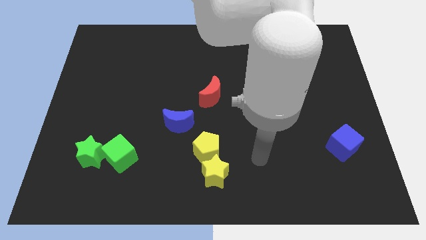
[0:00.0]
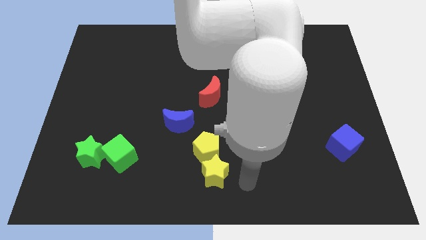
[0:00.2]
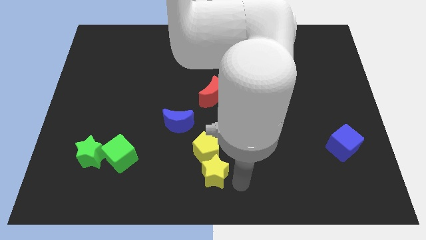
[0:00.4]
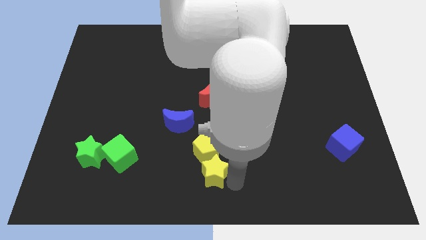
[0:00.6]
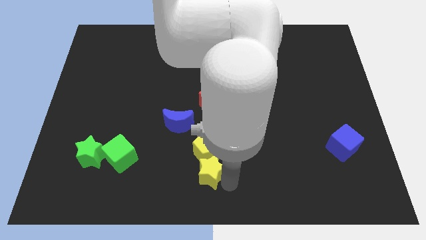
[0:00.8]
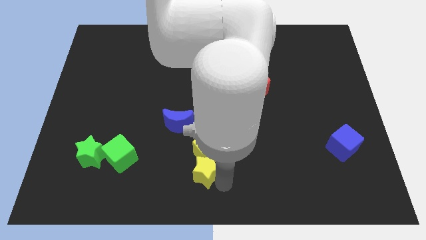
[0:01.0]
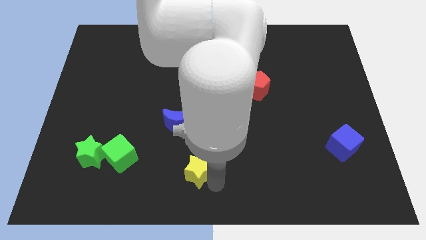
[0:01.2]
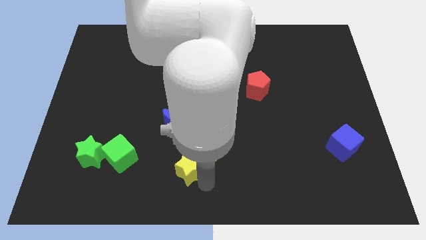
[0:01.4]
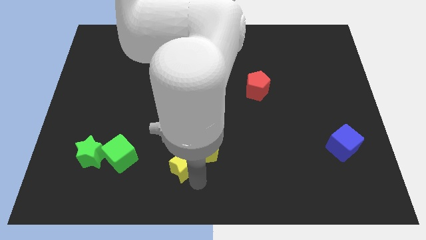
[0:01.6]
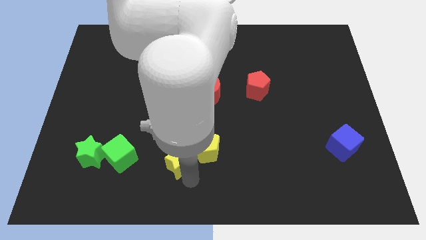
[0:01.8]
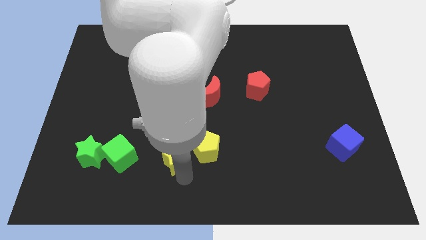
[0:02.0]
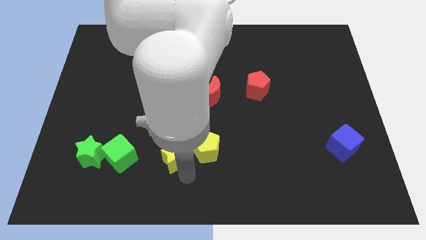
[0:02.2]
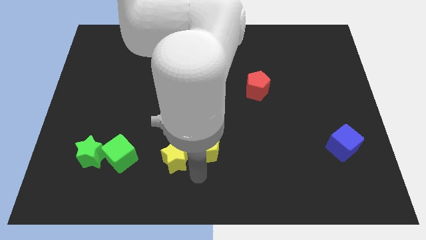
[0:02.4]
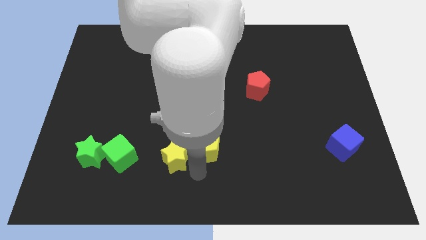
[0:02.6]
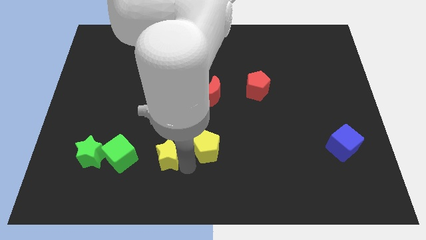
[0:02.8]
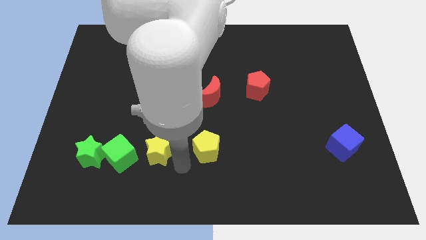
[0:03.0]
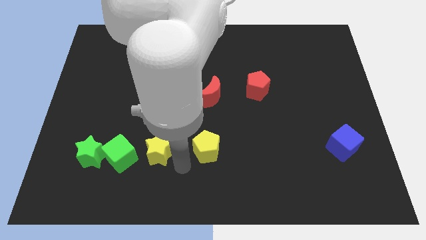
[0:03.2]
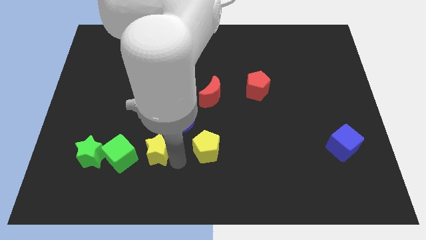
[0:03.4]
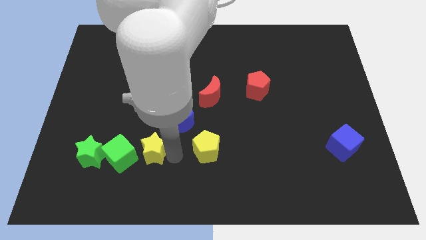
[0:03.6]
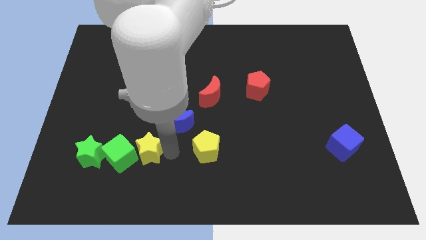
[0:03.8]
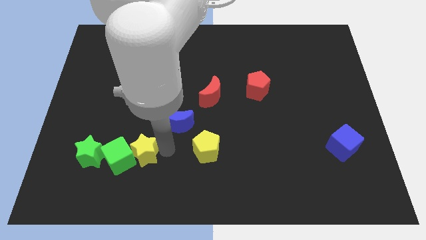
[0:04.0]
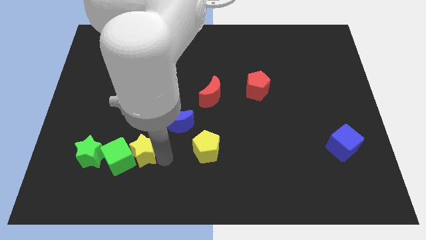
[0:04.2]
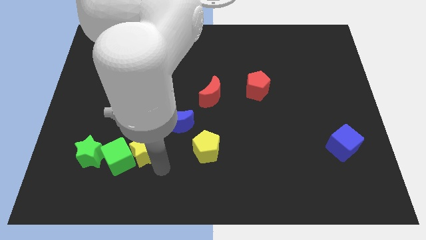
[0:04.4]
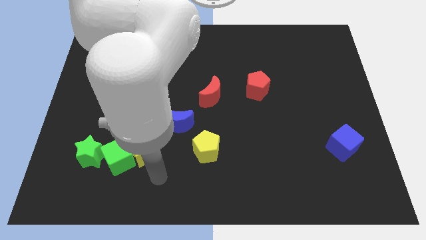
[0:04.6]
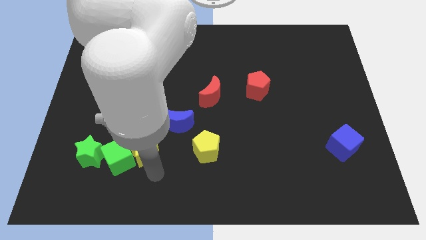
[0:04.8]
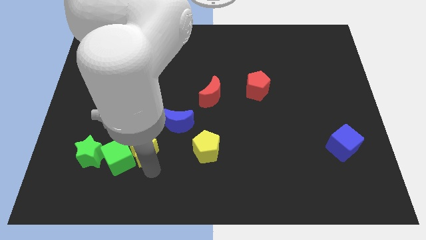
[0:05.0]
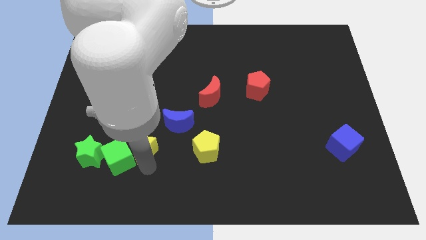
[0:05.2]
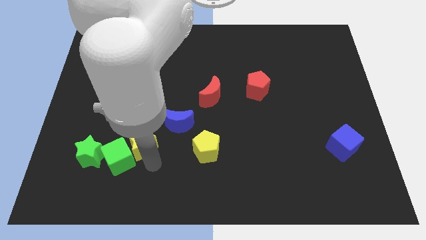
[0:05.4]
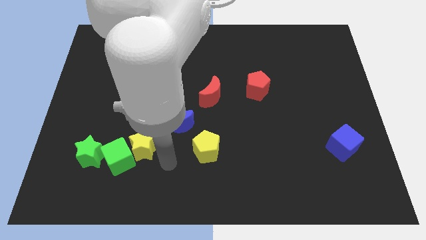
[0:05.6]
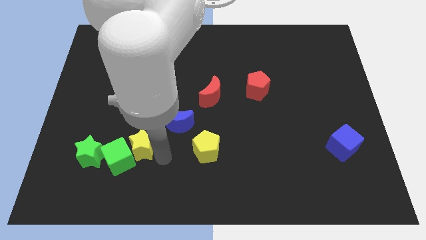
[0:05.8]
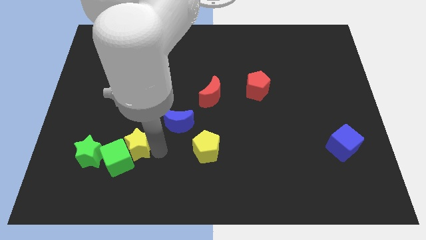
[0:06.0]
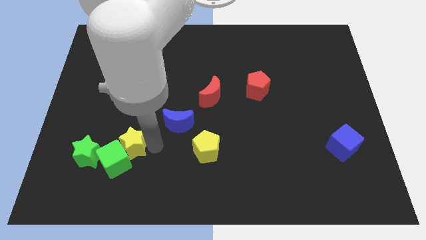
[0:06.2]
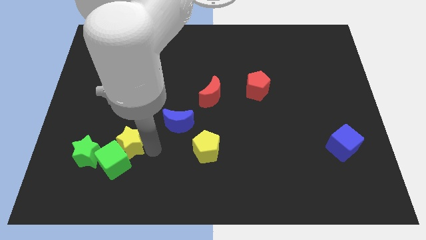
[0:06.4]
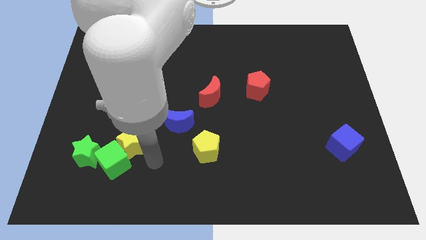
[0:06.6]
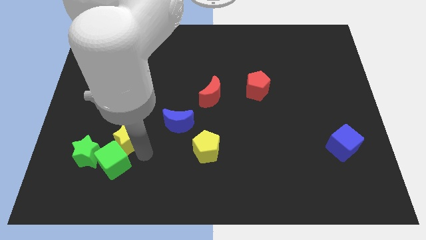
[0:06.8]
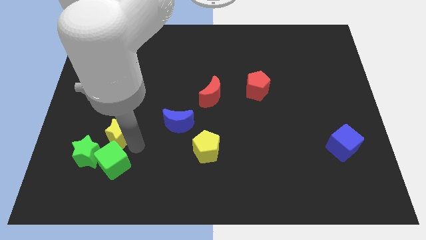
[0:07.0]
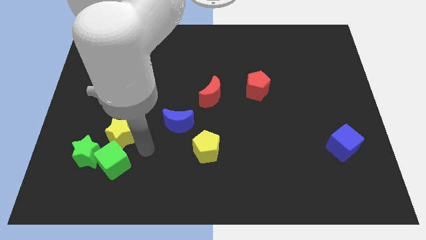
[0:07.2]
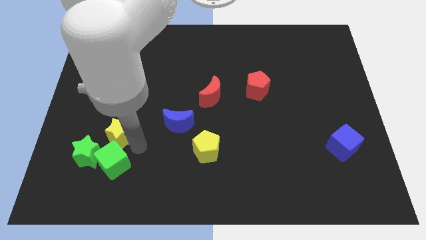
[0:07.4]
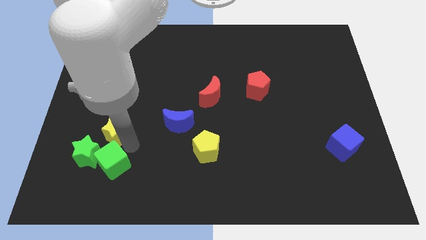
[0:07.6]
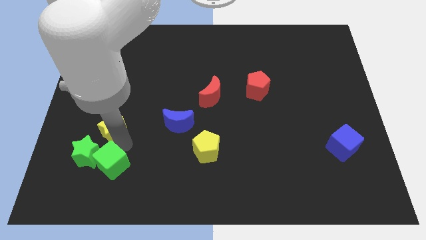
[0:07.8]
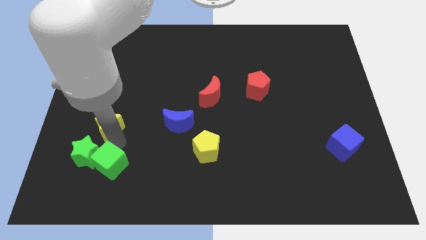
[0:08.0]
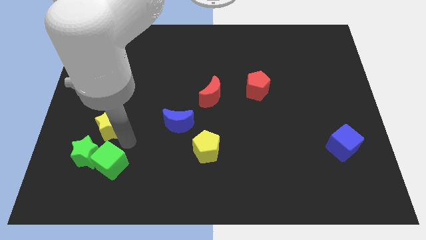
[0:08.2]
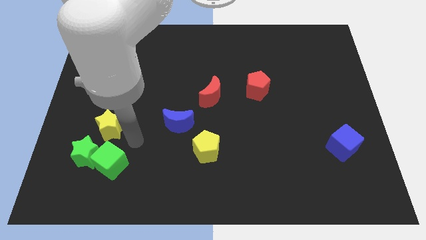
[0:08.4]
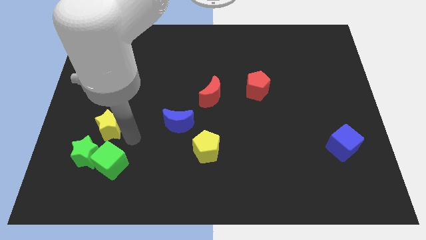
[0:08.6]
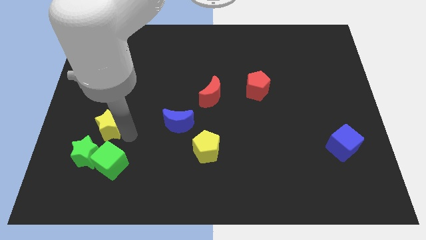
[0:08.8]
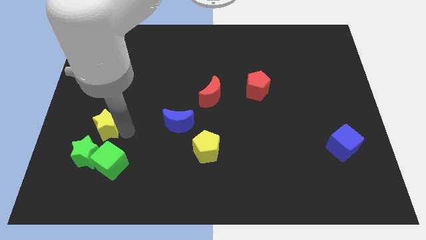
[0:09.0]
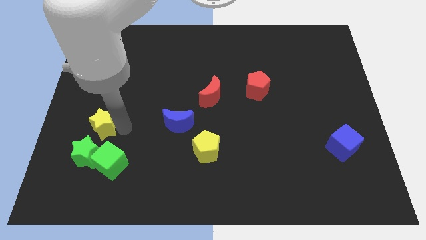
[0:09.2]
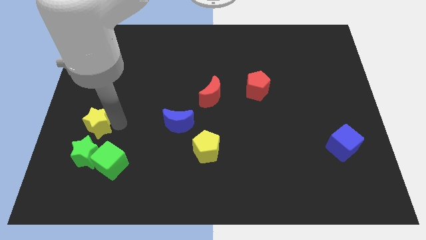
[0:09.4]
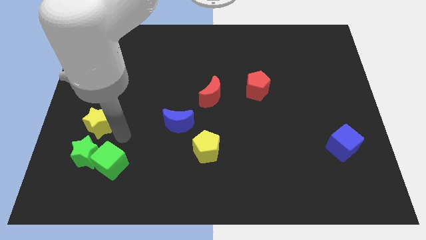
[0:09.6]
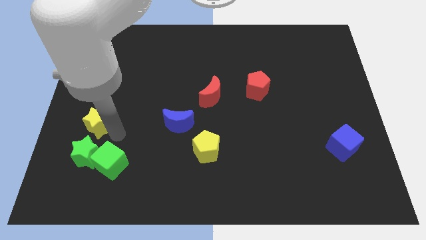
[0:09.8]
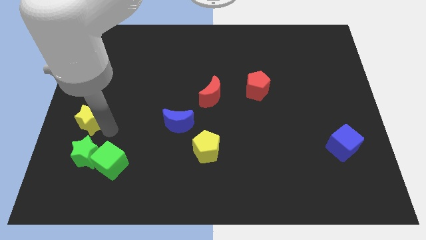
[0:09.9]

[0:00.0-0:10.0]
push the yellow star to the left side
